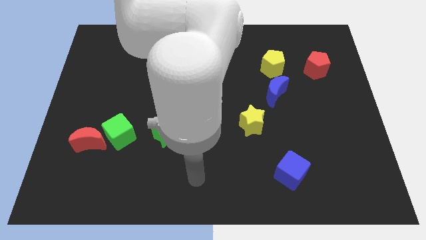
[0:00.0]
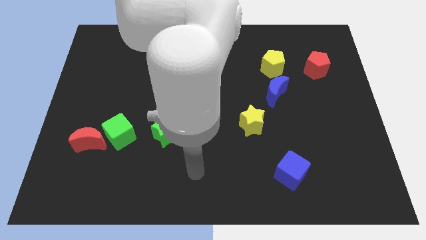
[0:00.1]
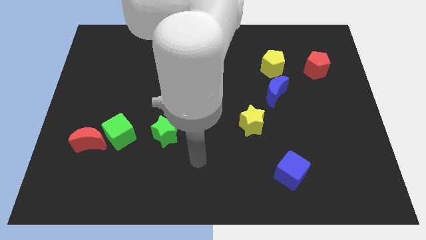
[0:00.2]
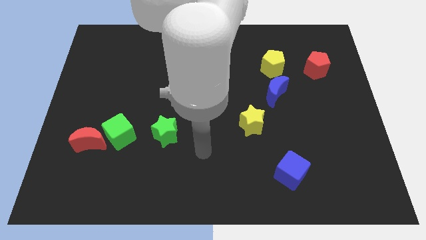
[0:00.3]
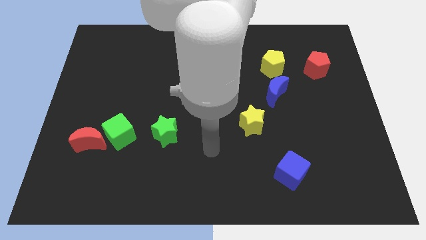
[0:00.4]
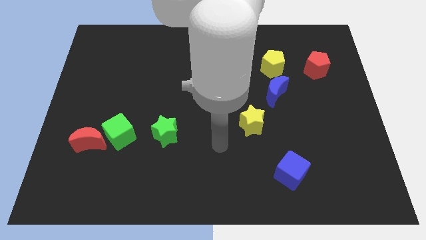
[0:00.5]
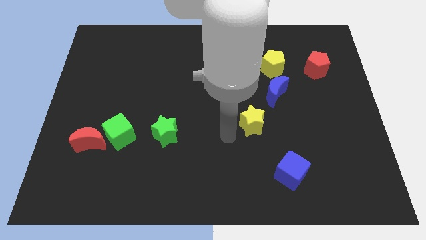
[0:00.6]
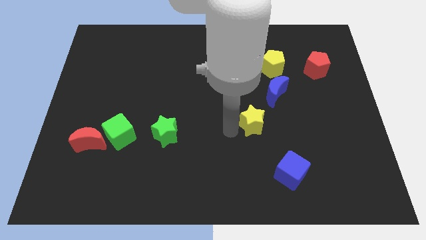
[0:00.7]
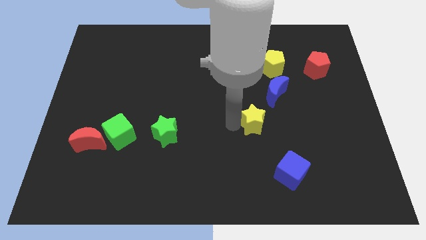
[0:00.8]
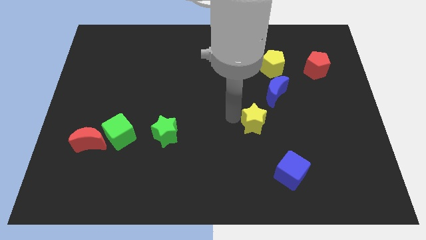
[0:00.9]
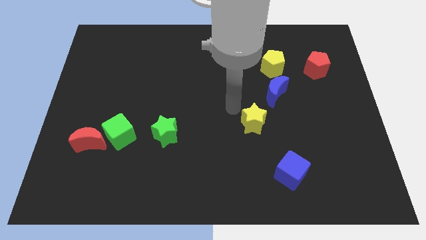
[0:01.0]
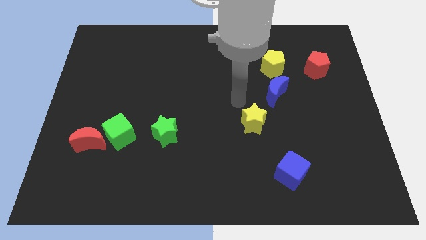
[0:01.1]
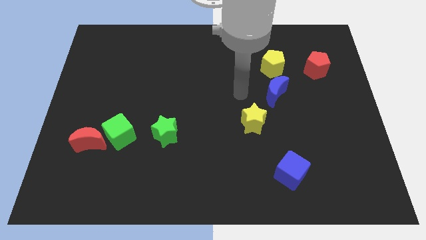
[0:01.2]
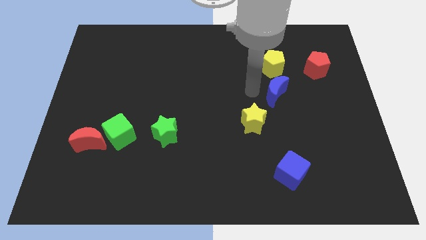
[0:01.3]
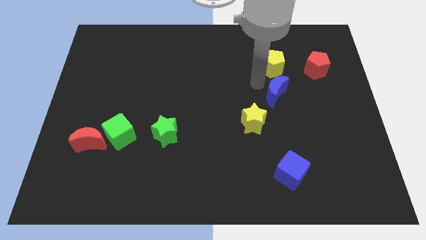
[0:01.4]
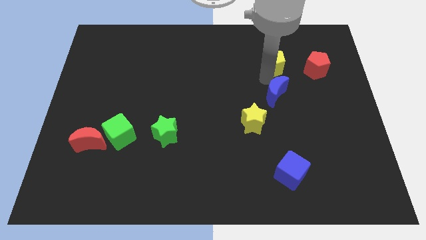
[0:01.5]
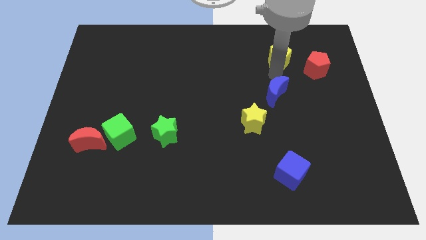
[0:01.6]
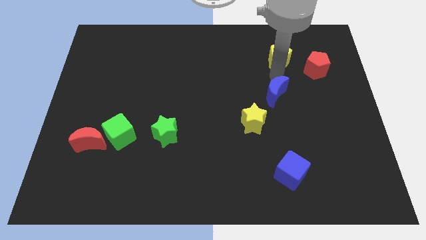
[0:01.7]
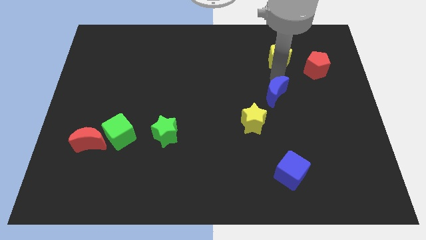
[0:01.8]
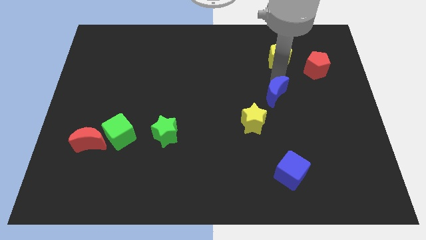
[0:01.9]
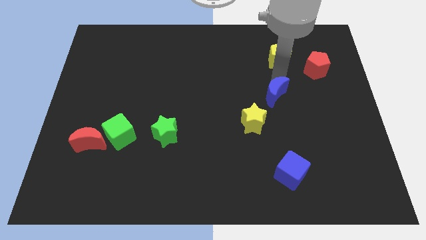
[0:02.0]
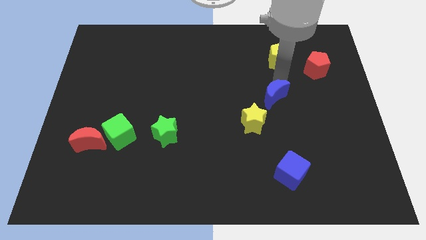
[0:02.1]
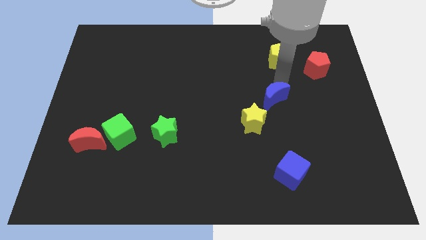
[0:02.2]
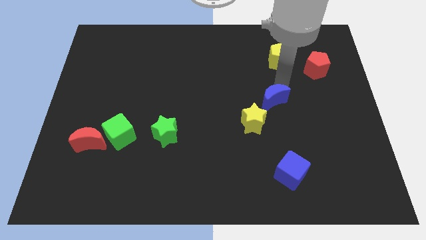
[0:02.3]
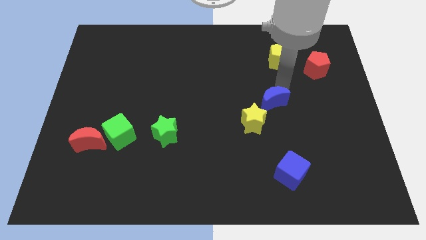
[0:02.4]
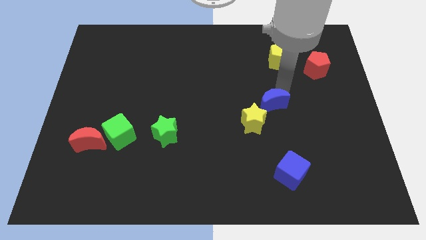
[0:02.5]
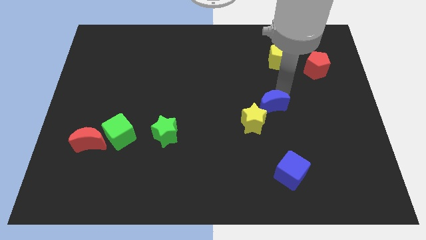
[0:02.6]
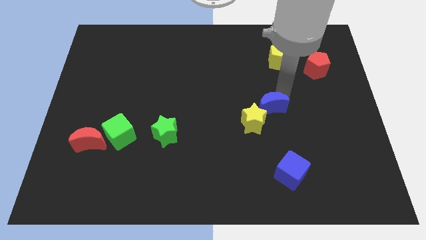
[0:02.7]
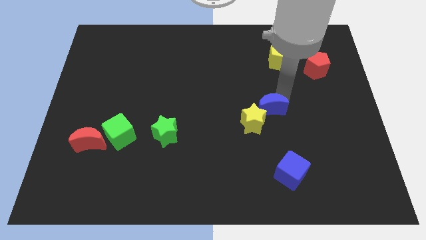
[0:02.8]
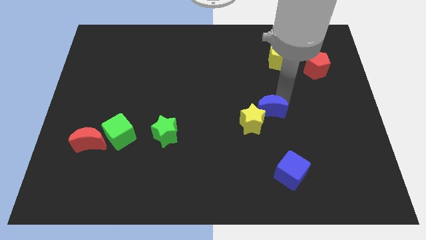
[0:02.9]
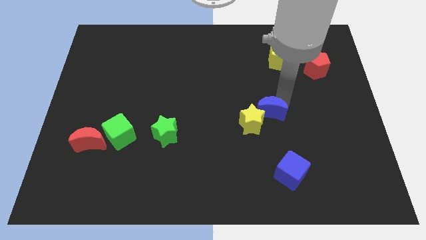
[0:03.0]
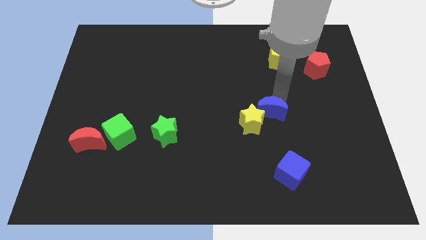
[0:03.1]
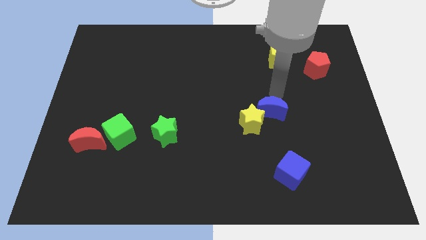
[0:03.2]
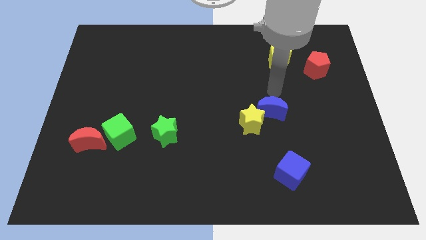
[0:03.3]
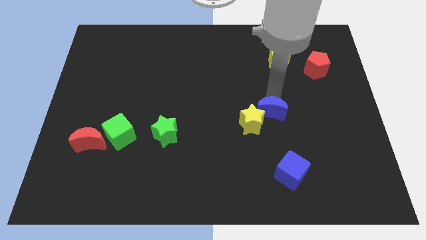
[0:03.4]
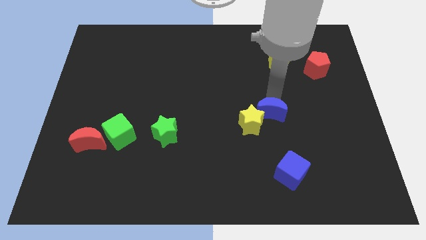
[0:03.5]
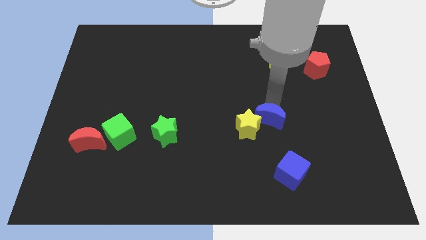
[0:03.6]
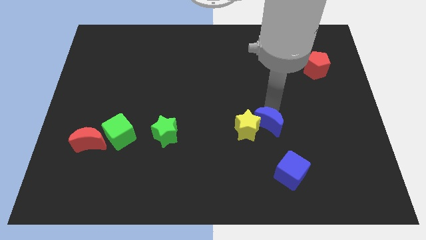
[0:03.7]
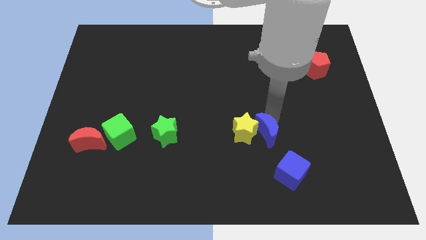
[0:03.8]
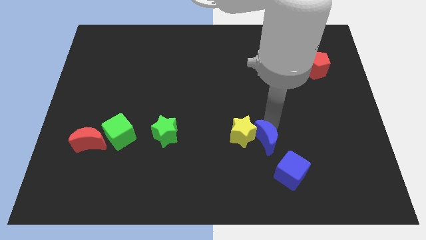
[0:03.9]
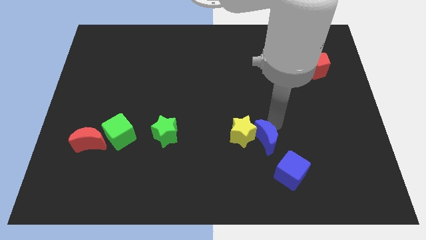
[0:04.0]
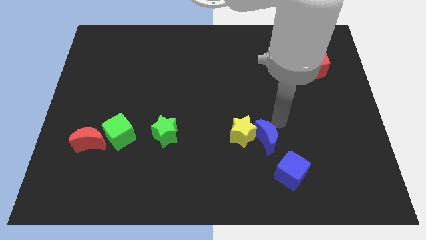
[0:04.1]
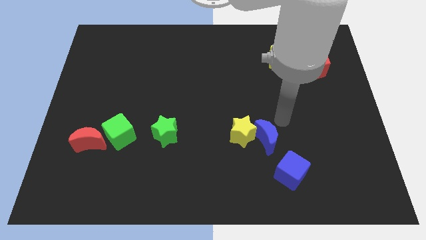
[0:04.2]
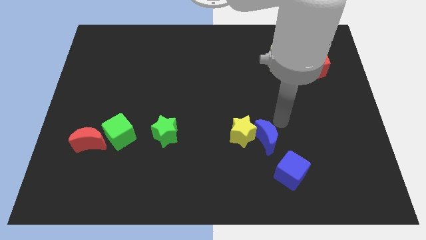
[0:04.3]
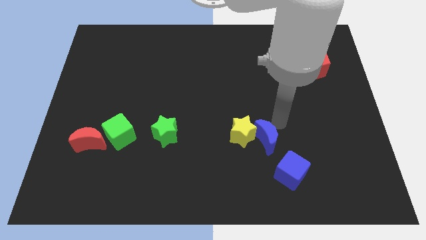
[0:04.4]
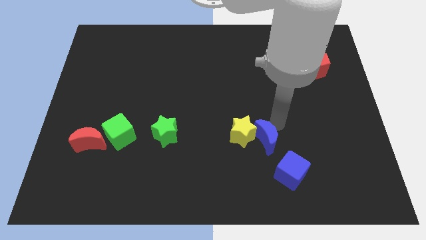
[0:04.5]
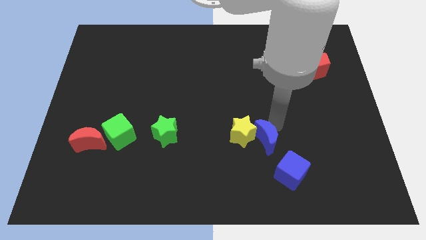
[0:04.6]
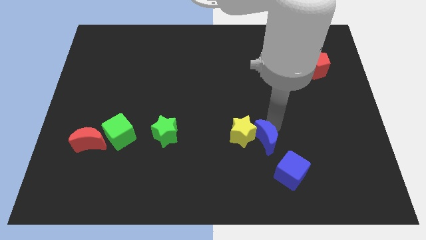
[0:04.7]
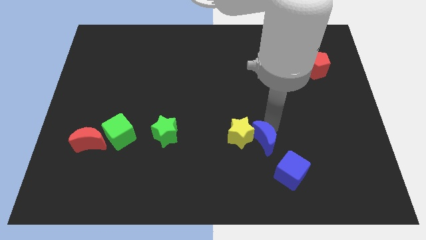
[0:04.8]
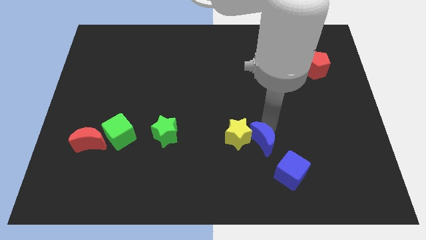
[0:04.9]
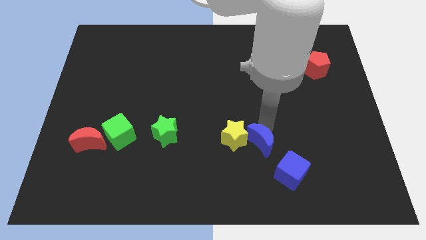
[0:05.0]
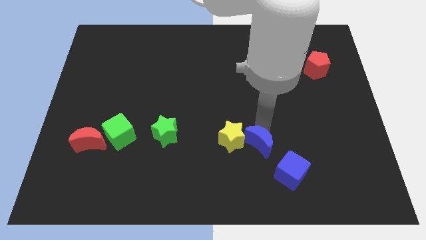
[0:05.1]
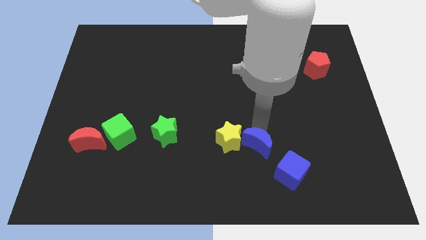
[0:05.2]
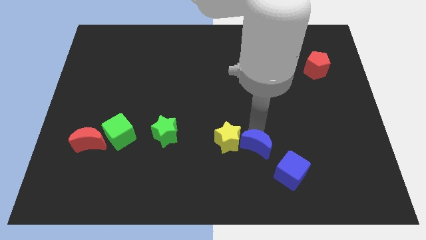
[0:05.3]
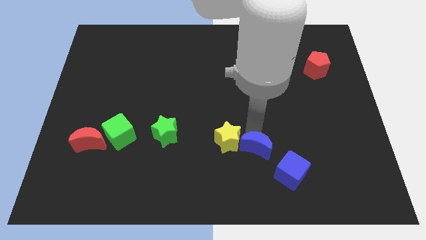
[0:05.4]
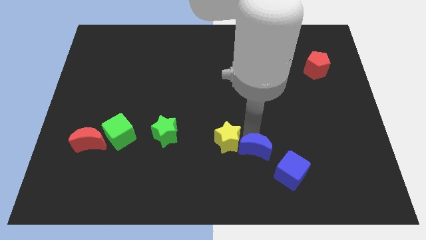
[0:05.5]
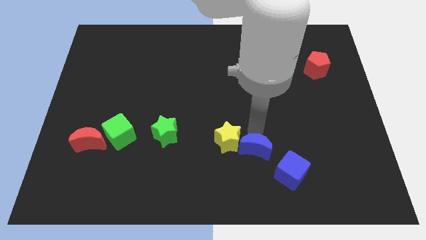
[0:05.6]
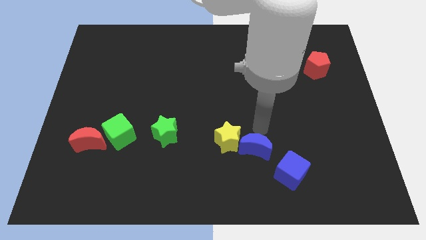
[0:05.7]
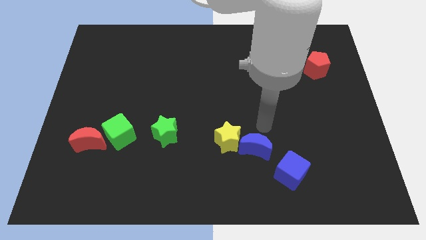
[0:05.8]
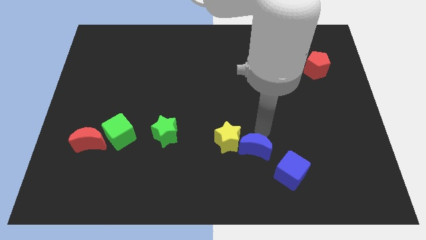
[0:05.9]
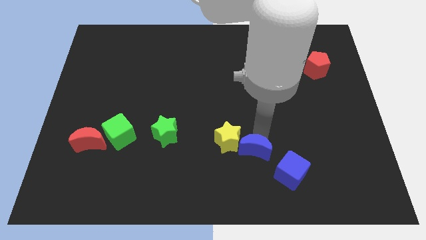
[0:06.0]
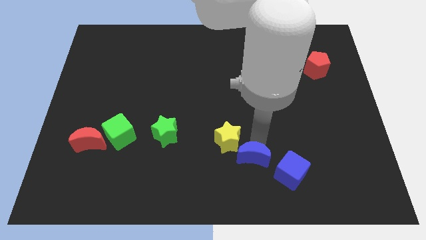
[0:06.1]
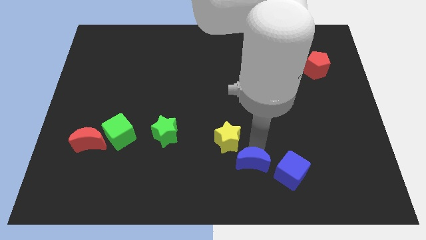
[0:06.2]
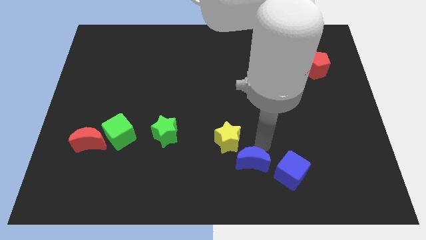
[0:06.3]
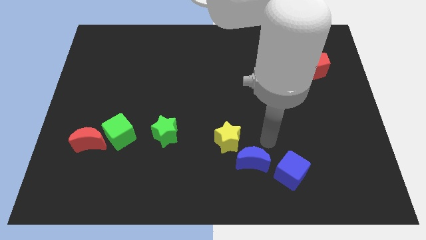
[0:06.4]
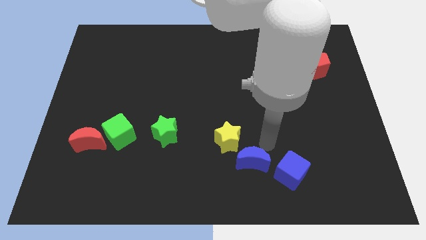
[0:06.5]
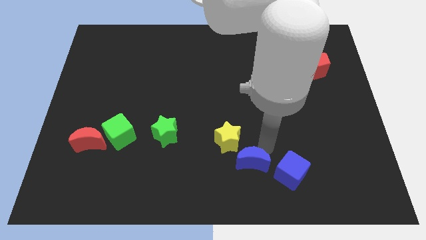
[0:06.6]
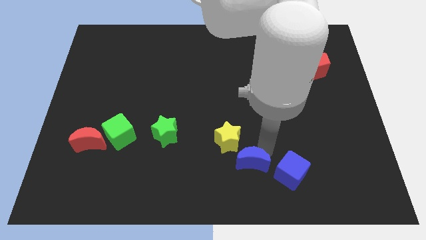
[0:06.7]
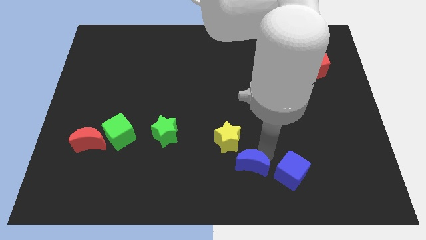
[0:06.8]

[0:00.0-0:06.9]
push the blue moon to the bottom
